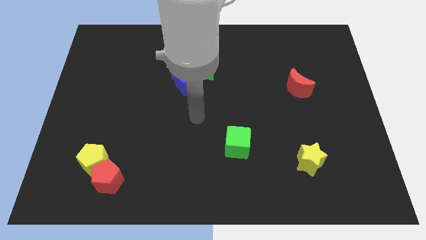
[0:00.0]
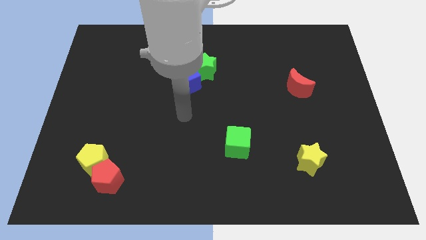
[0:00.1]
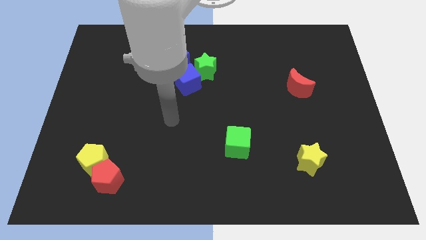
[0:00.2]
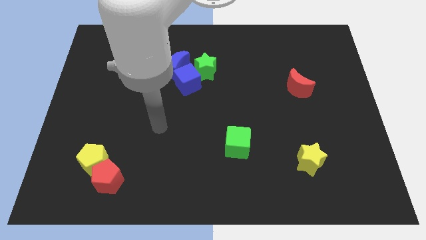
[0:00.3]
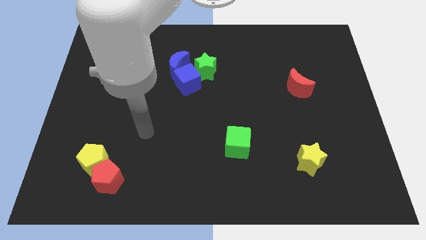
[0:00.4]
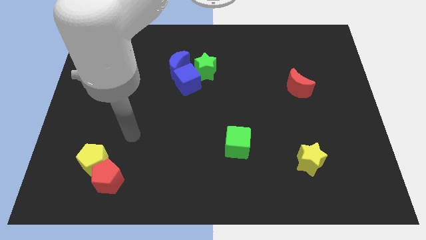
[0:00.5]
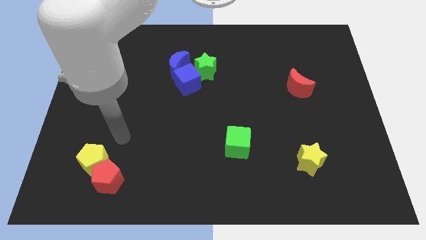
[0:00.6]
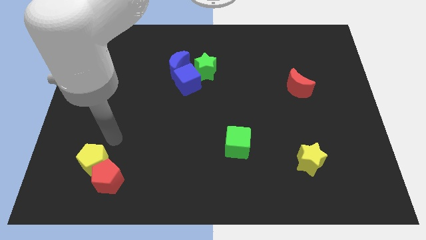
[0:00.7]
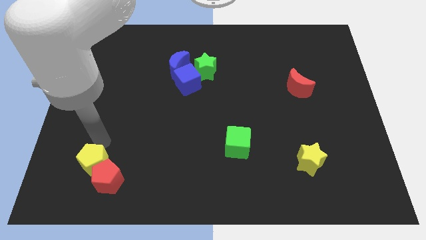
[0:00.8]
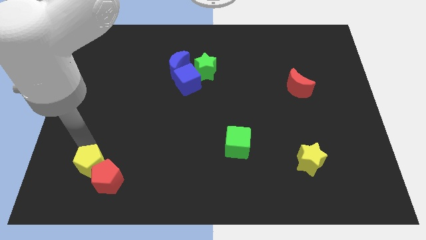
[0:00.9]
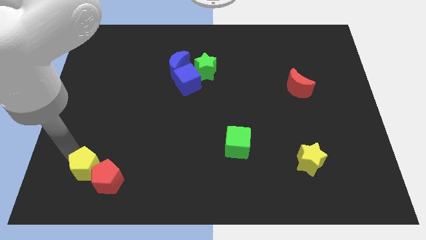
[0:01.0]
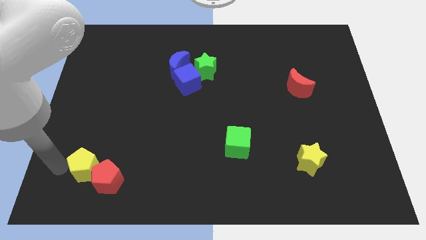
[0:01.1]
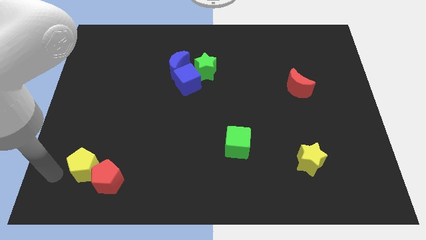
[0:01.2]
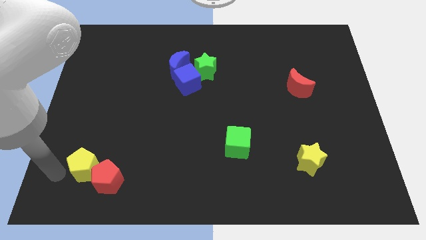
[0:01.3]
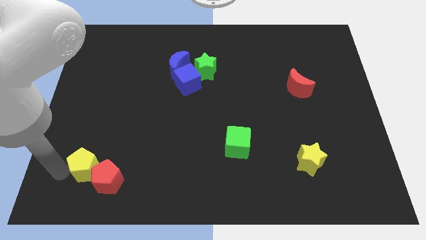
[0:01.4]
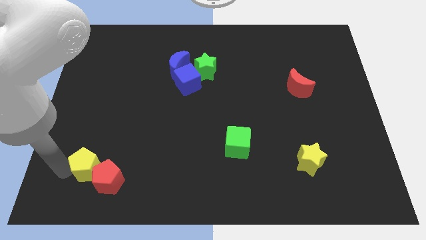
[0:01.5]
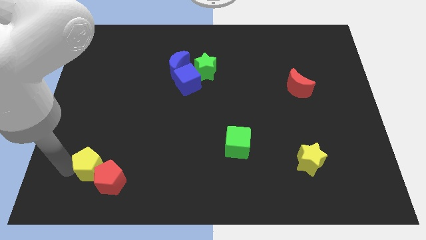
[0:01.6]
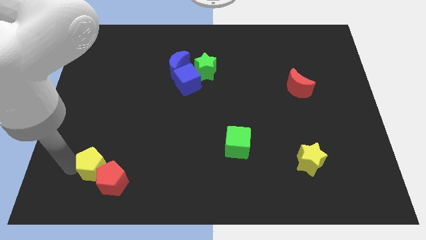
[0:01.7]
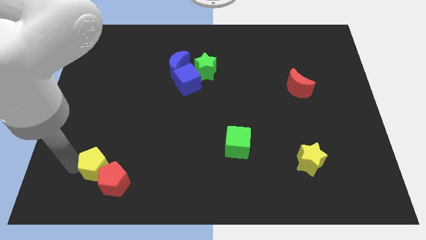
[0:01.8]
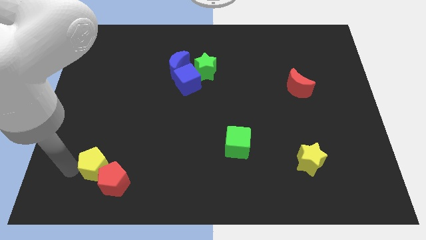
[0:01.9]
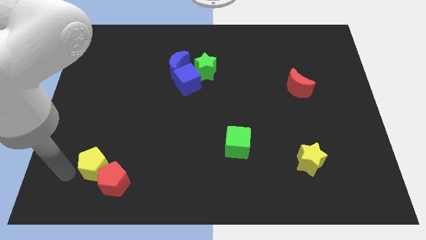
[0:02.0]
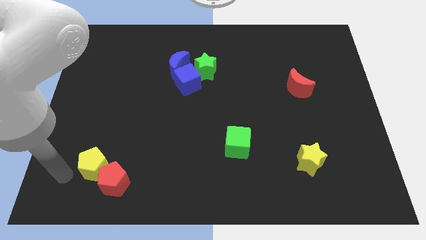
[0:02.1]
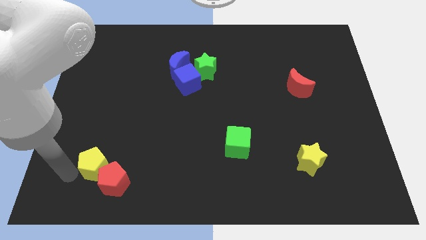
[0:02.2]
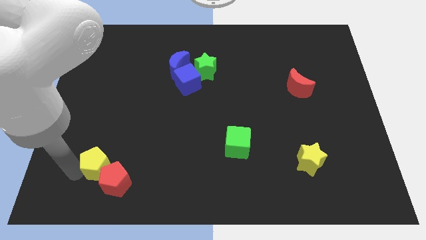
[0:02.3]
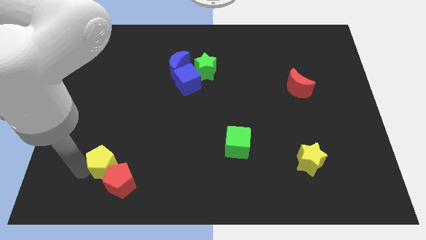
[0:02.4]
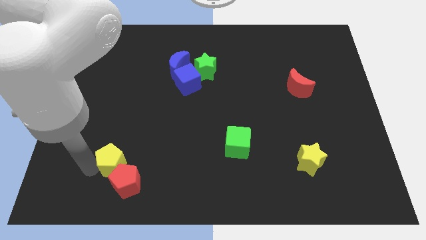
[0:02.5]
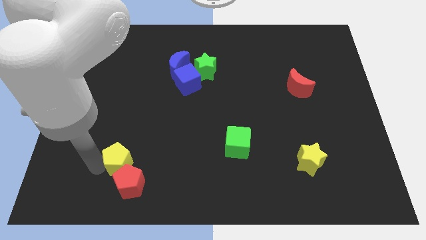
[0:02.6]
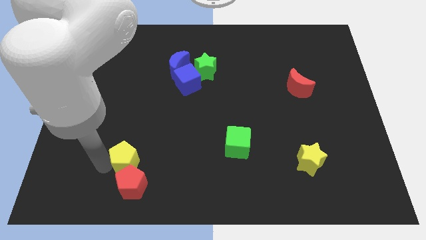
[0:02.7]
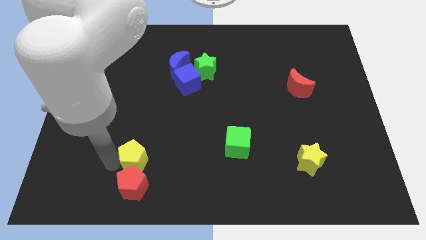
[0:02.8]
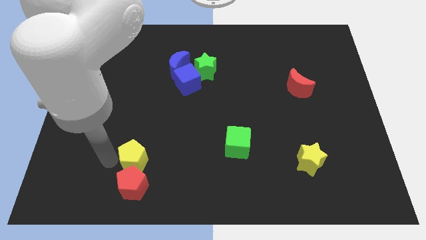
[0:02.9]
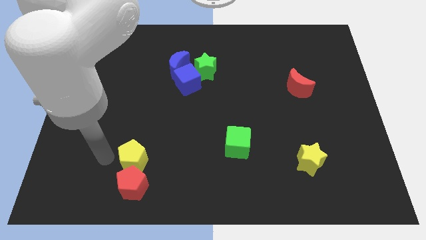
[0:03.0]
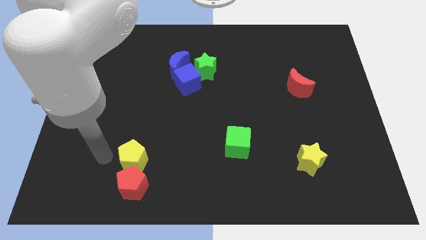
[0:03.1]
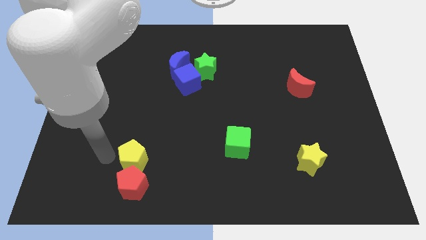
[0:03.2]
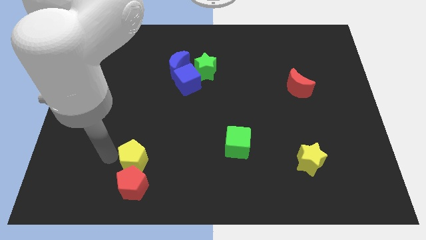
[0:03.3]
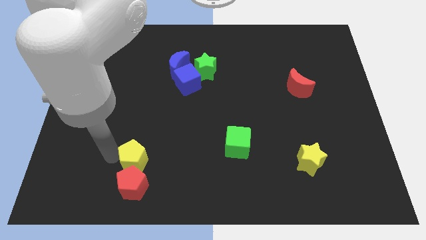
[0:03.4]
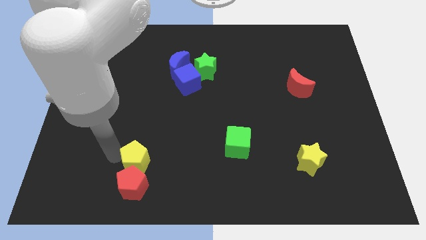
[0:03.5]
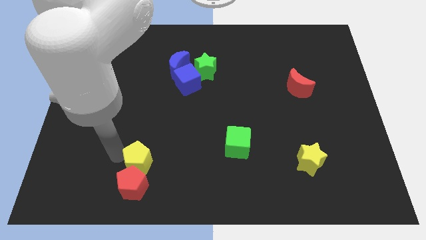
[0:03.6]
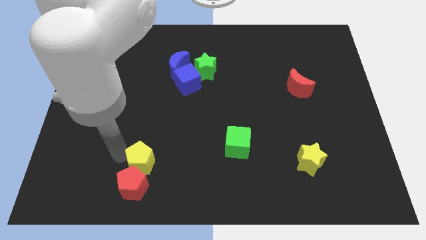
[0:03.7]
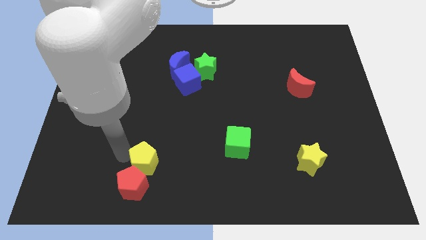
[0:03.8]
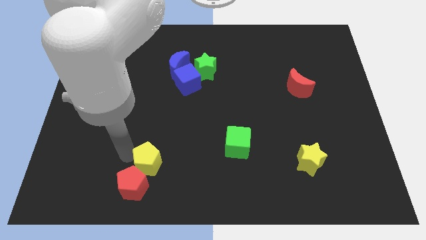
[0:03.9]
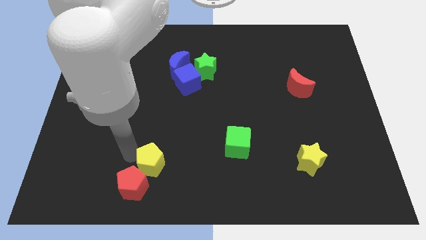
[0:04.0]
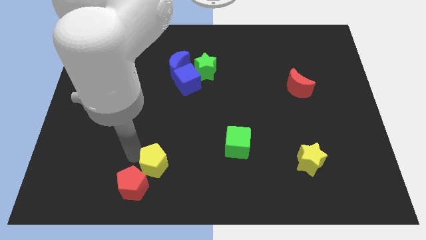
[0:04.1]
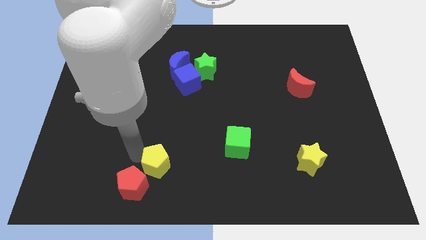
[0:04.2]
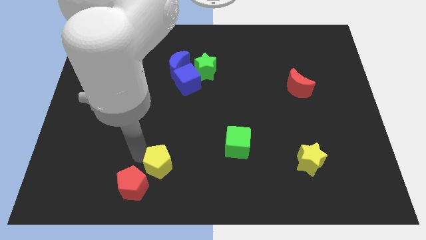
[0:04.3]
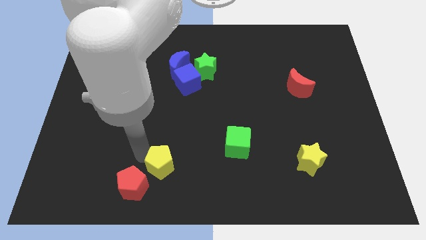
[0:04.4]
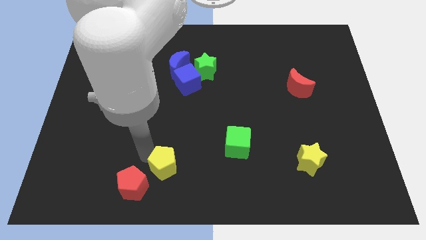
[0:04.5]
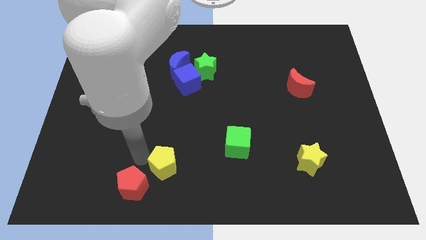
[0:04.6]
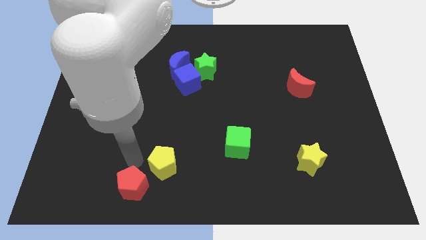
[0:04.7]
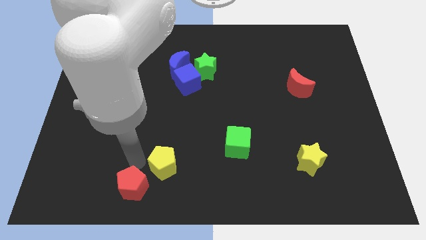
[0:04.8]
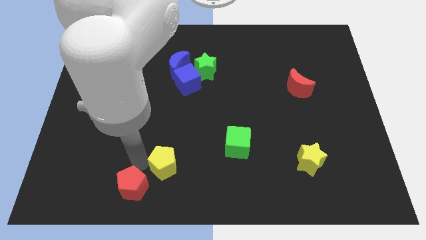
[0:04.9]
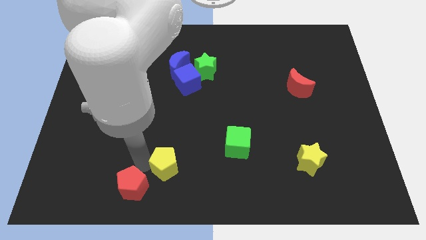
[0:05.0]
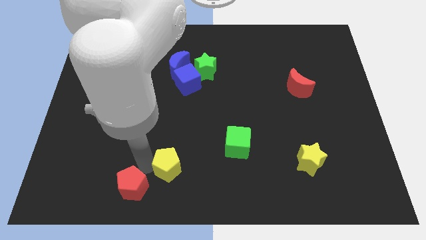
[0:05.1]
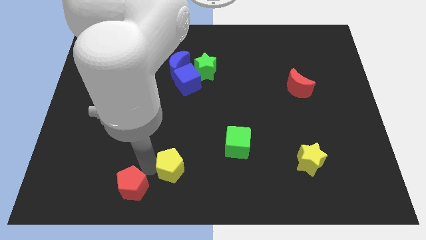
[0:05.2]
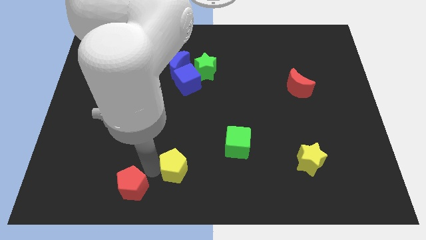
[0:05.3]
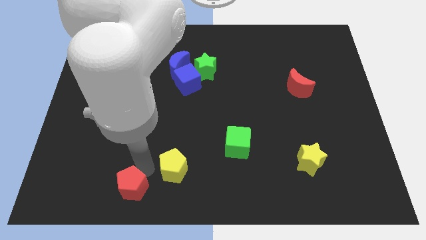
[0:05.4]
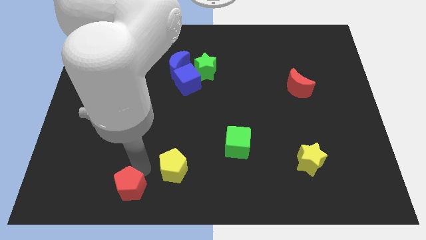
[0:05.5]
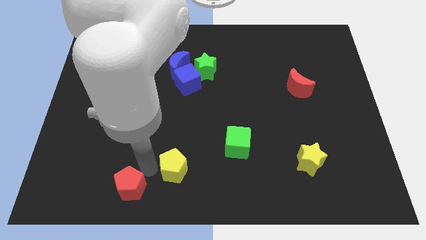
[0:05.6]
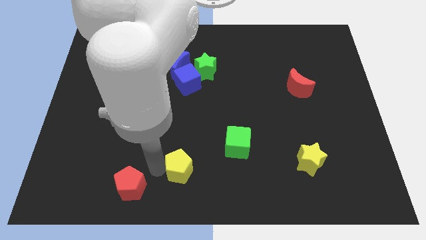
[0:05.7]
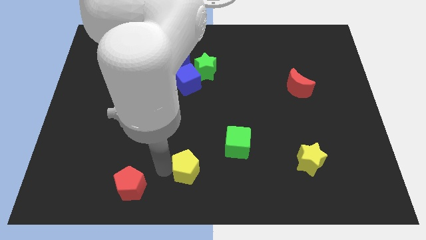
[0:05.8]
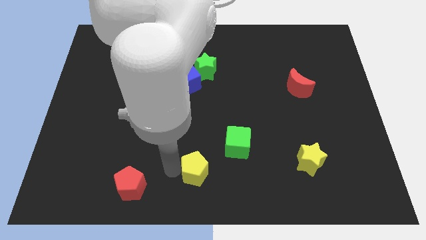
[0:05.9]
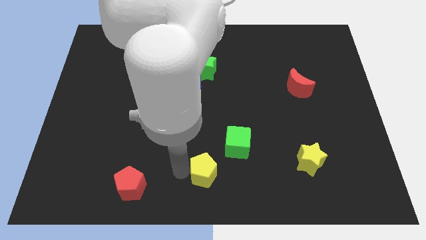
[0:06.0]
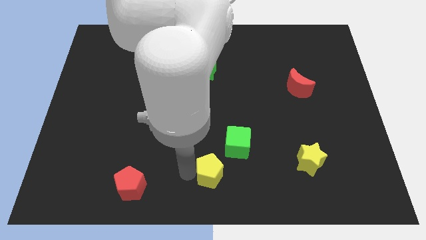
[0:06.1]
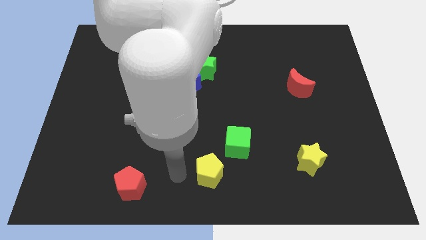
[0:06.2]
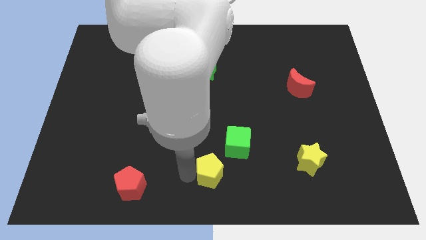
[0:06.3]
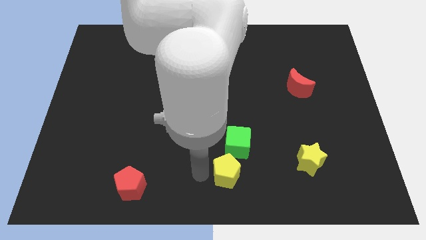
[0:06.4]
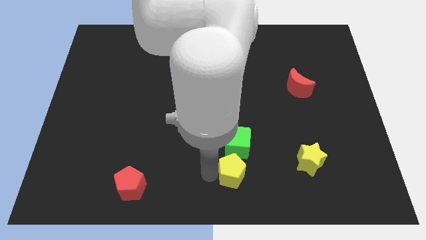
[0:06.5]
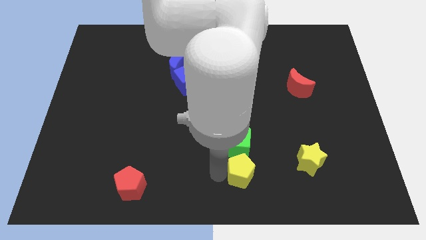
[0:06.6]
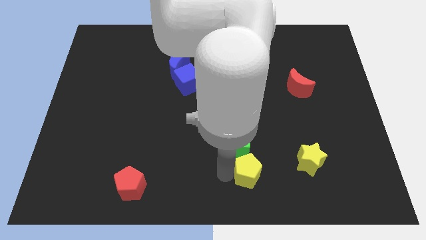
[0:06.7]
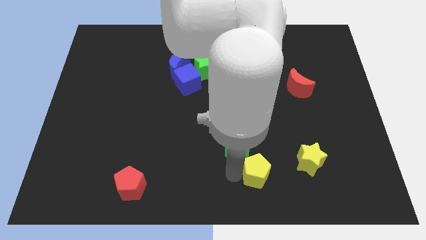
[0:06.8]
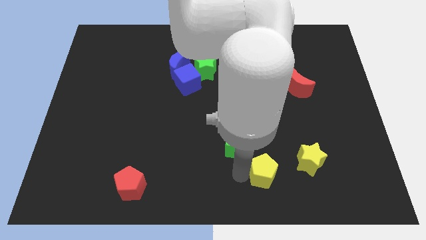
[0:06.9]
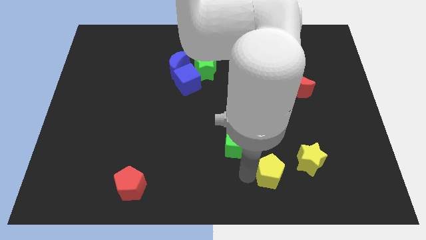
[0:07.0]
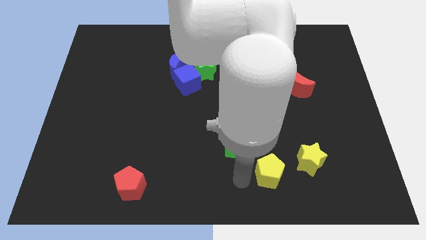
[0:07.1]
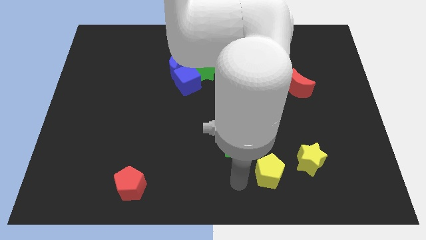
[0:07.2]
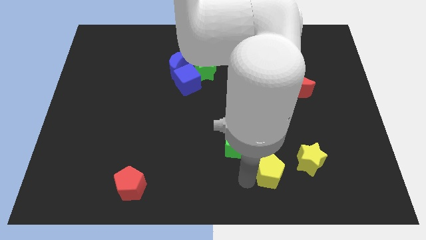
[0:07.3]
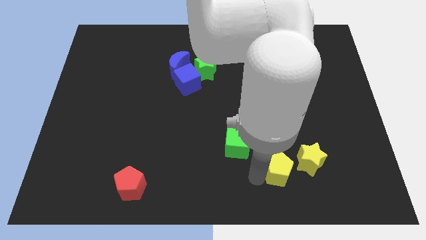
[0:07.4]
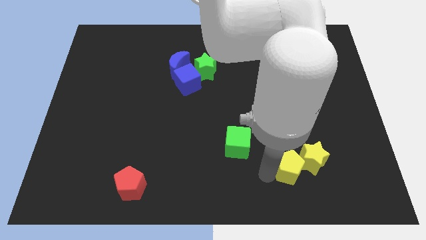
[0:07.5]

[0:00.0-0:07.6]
put the yellow pentagon close to the yellow star
